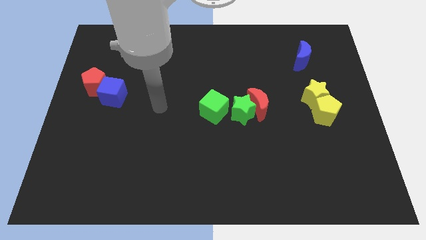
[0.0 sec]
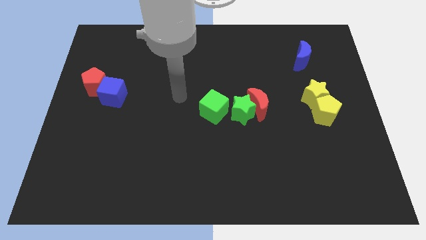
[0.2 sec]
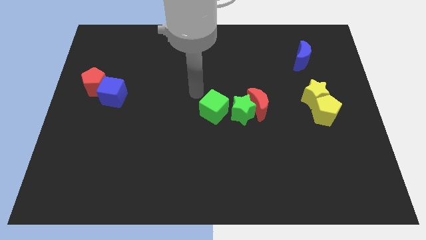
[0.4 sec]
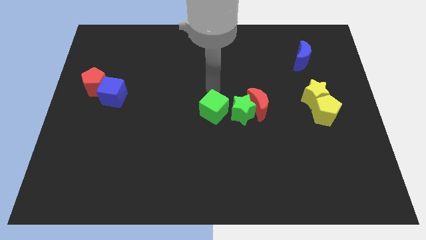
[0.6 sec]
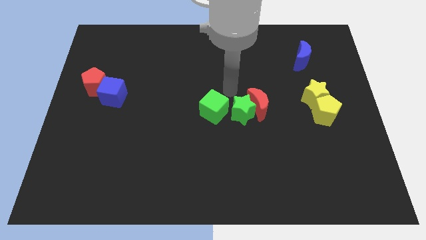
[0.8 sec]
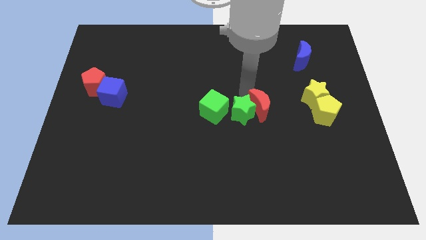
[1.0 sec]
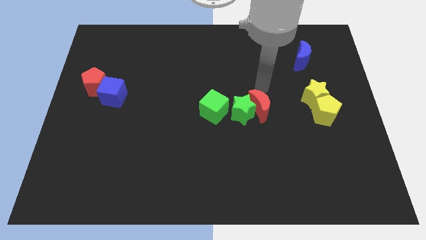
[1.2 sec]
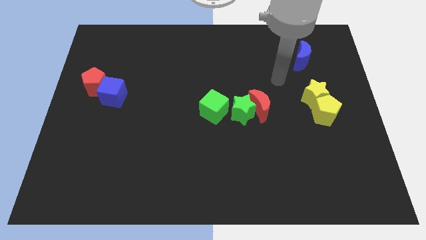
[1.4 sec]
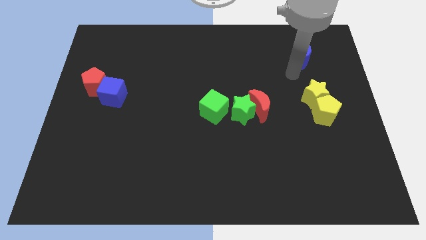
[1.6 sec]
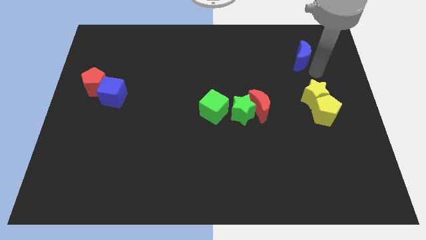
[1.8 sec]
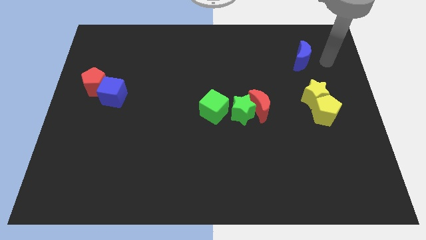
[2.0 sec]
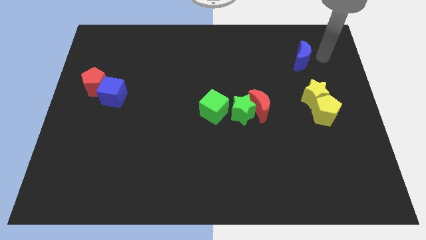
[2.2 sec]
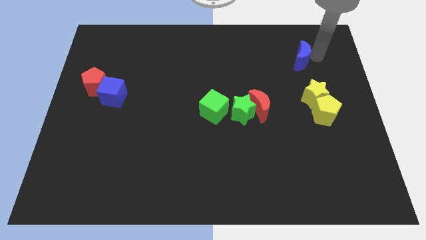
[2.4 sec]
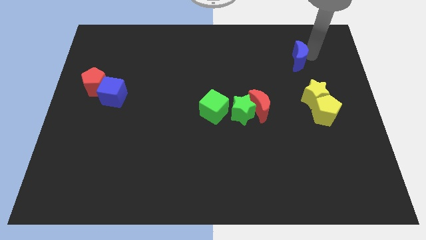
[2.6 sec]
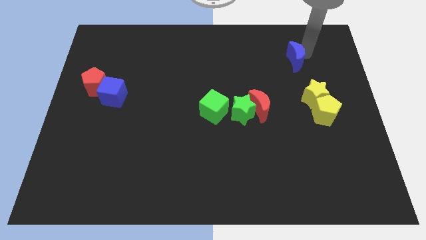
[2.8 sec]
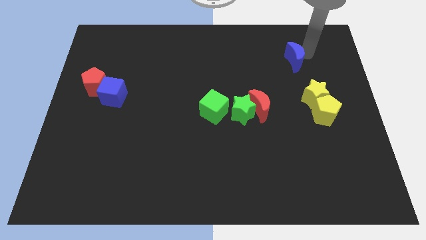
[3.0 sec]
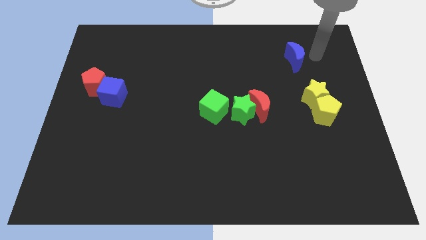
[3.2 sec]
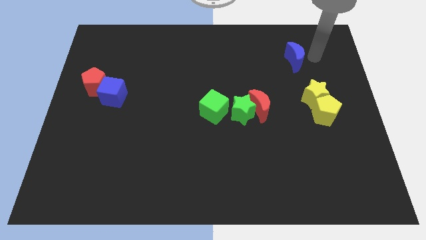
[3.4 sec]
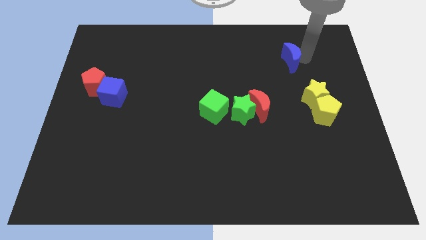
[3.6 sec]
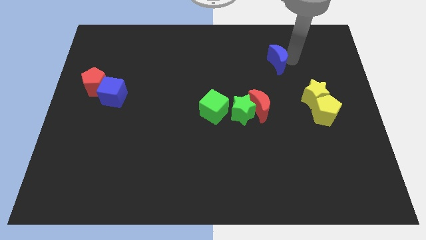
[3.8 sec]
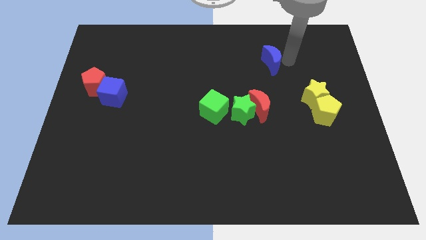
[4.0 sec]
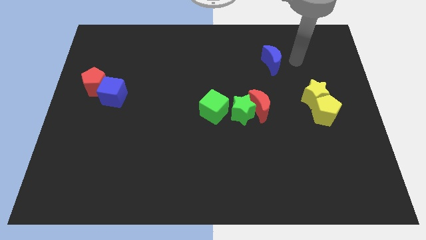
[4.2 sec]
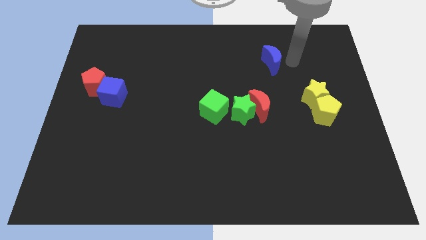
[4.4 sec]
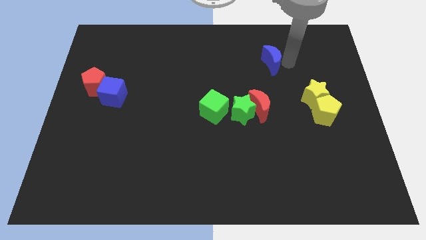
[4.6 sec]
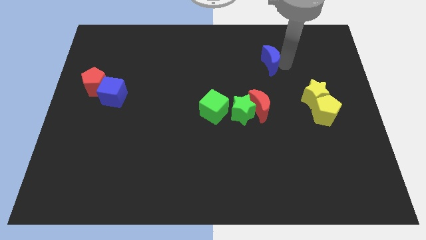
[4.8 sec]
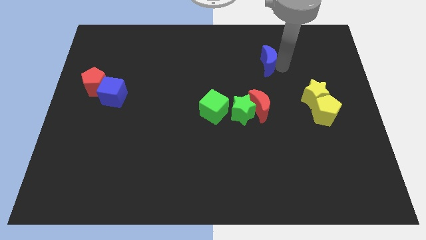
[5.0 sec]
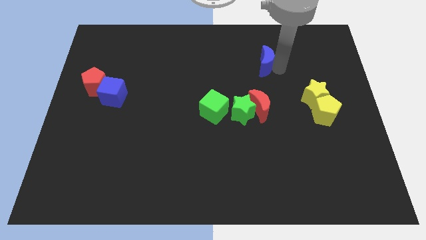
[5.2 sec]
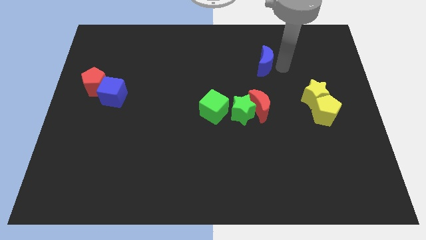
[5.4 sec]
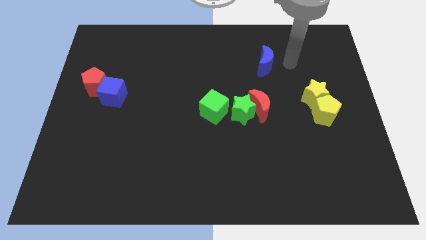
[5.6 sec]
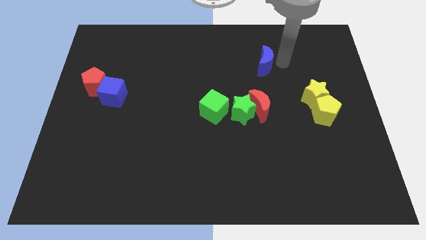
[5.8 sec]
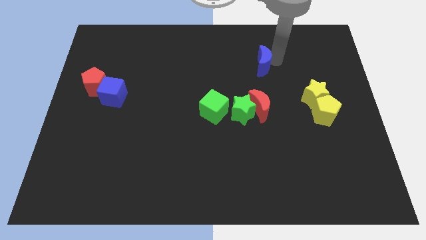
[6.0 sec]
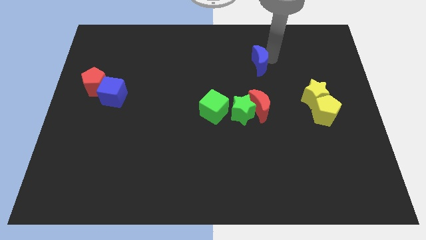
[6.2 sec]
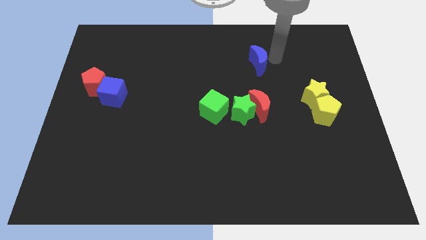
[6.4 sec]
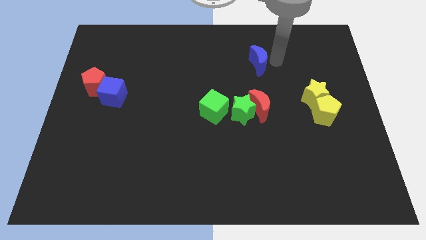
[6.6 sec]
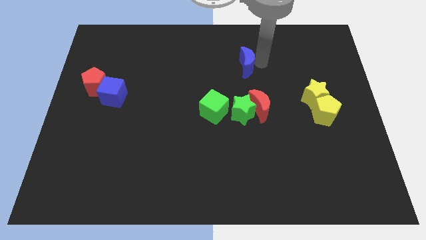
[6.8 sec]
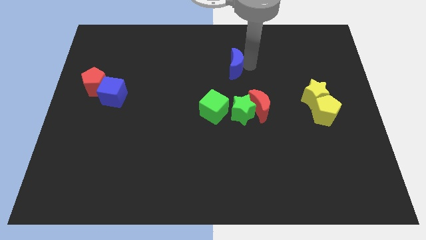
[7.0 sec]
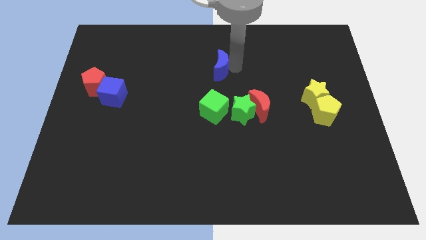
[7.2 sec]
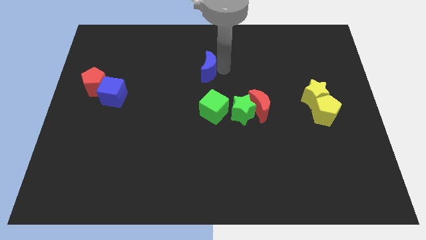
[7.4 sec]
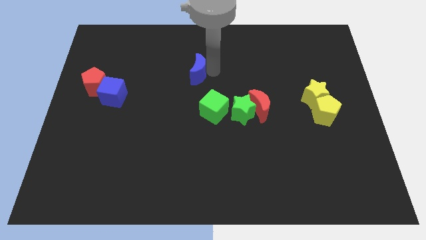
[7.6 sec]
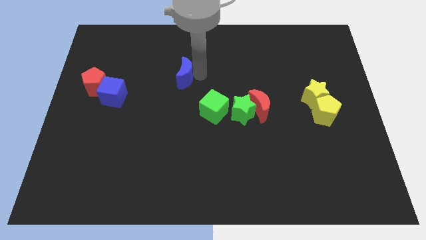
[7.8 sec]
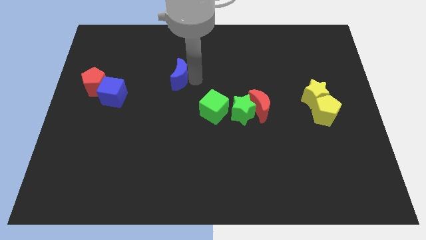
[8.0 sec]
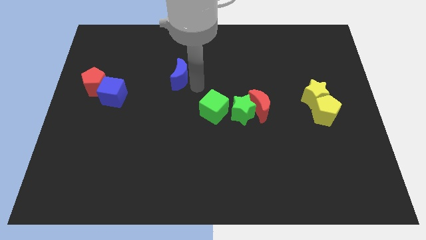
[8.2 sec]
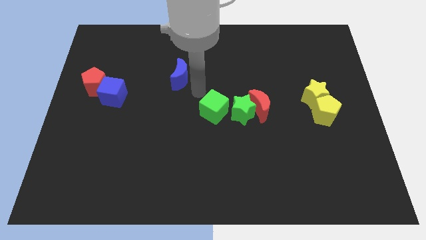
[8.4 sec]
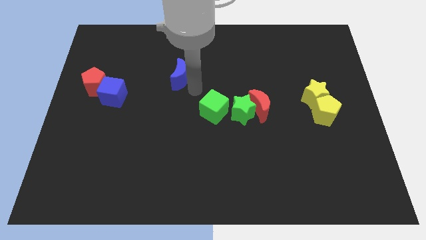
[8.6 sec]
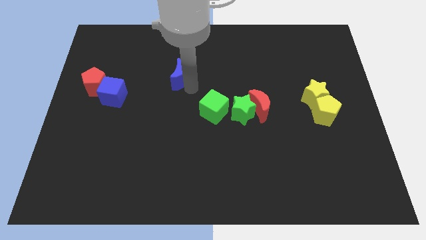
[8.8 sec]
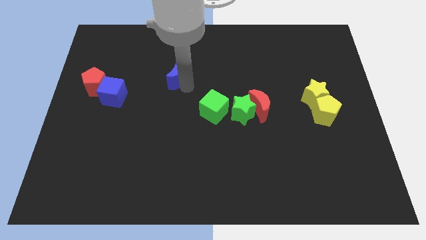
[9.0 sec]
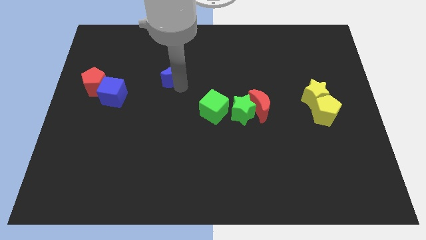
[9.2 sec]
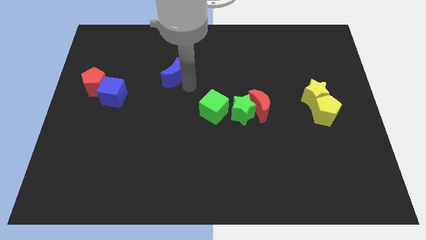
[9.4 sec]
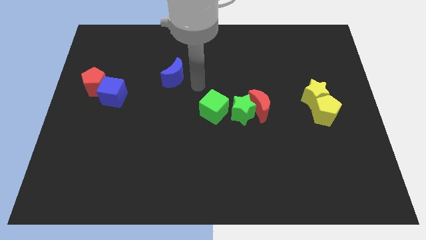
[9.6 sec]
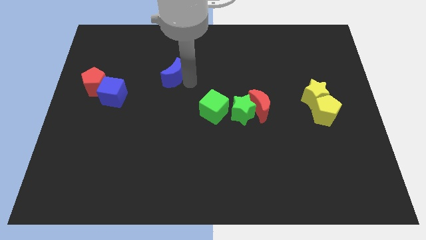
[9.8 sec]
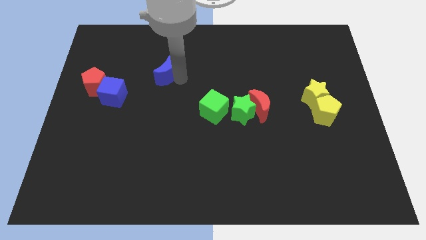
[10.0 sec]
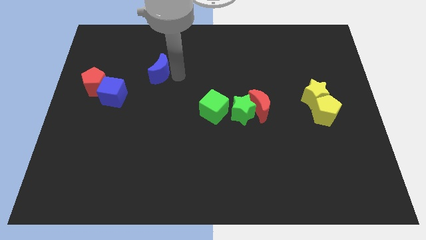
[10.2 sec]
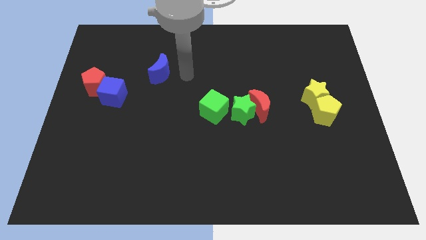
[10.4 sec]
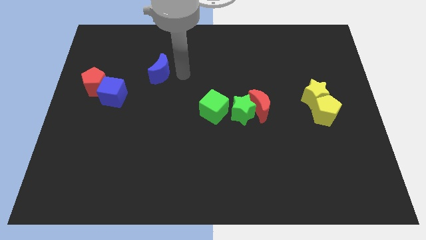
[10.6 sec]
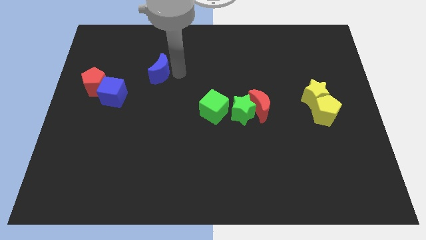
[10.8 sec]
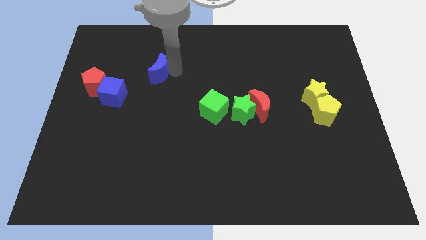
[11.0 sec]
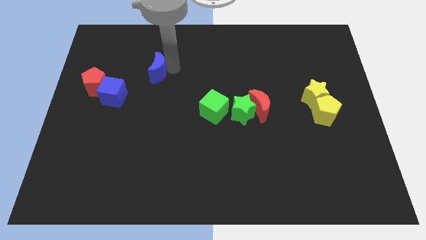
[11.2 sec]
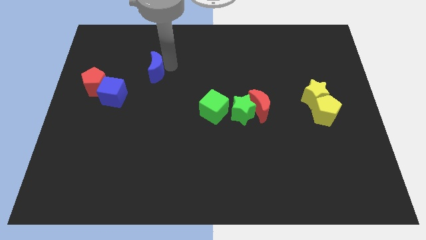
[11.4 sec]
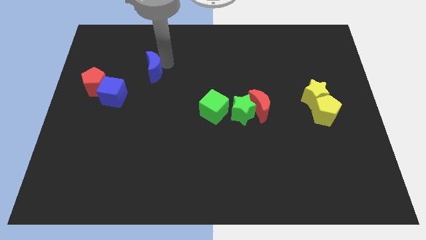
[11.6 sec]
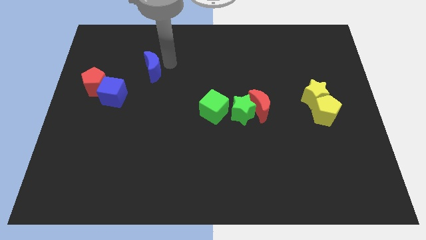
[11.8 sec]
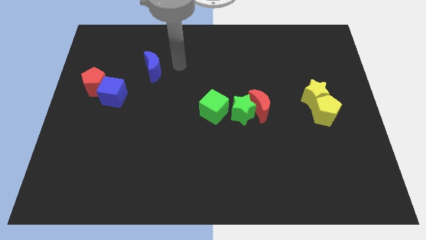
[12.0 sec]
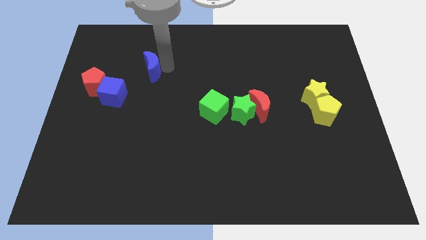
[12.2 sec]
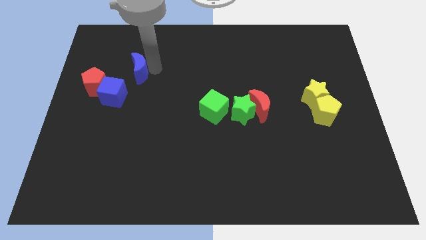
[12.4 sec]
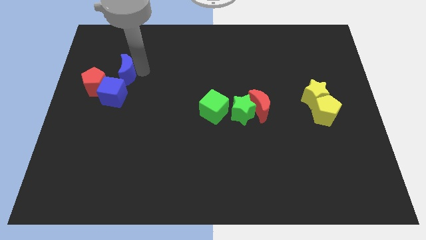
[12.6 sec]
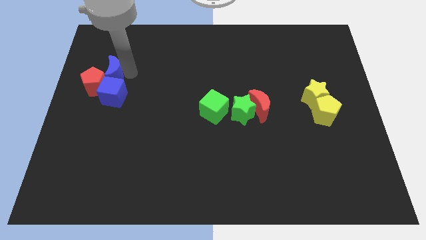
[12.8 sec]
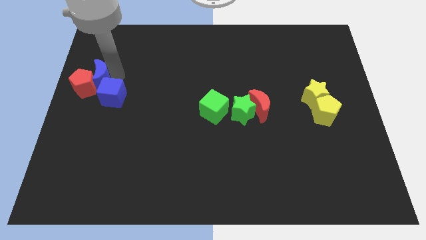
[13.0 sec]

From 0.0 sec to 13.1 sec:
put the blue moon to the left side of the board
